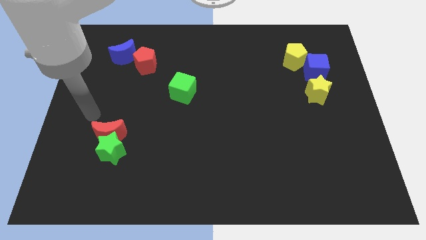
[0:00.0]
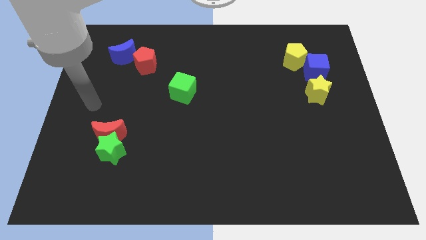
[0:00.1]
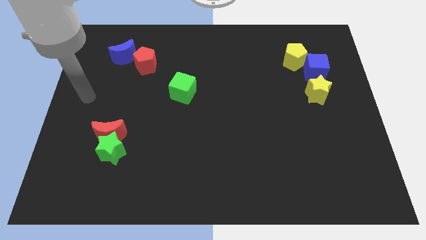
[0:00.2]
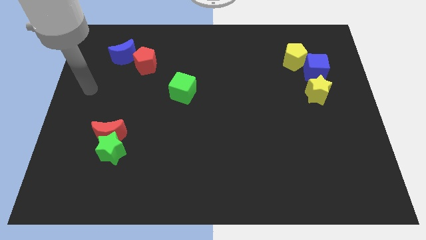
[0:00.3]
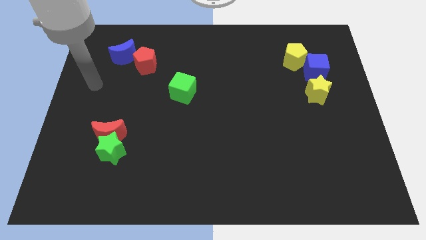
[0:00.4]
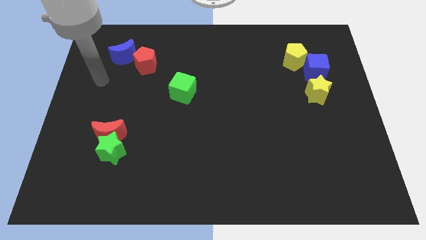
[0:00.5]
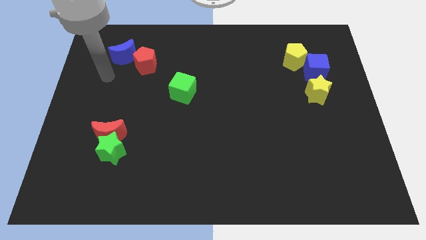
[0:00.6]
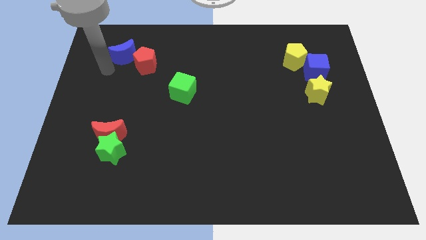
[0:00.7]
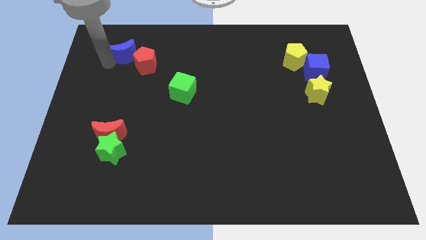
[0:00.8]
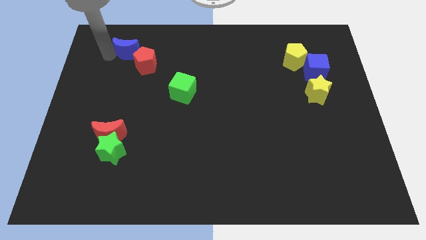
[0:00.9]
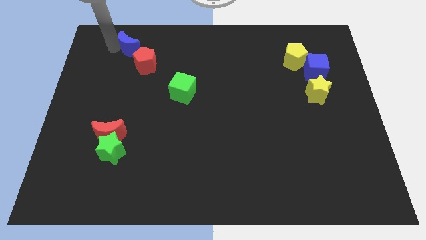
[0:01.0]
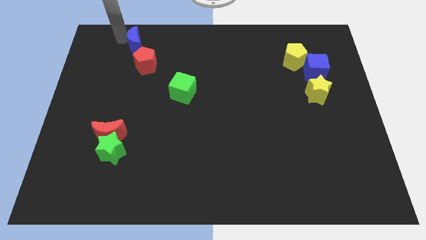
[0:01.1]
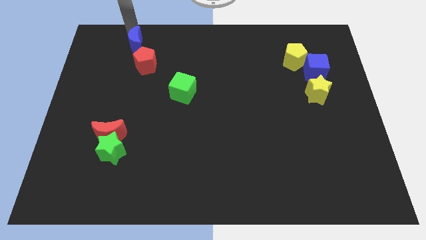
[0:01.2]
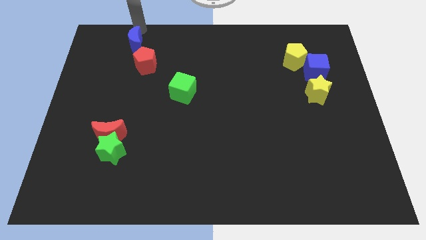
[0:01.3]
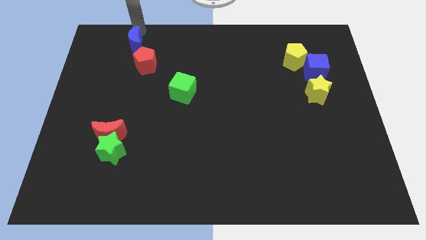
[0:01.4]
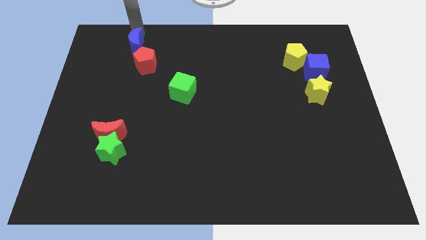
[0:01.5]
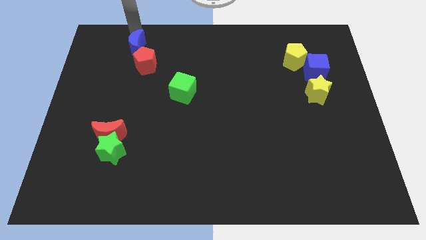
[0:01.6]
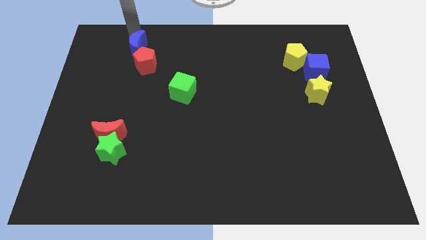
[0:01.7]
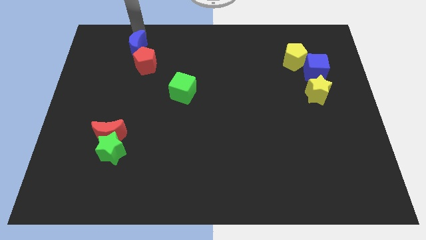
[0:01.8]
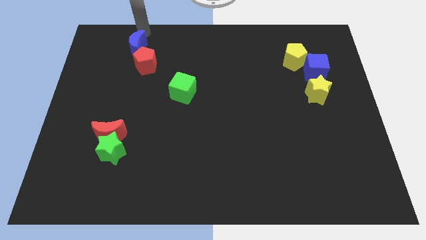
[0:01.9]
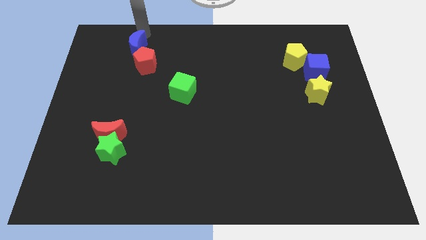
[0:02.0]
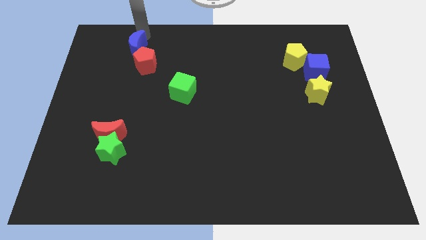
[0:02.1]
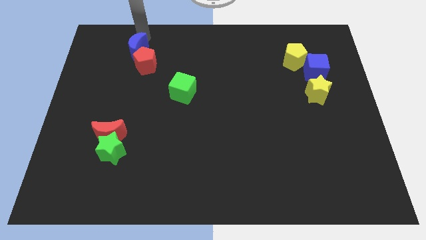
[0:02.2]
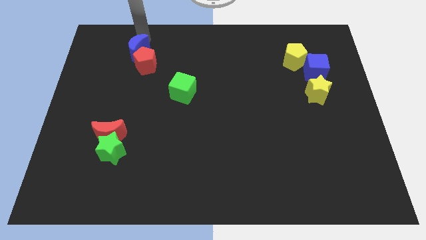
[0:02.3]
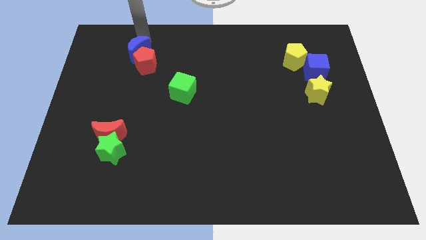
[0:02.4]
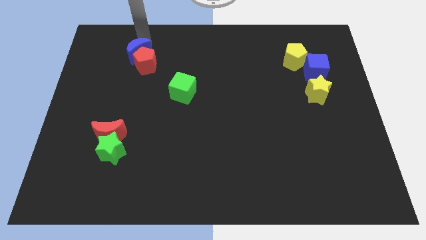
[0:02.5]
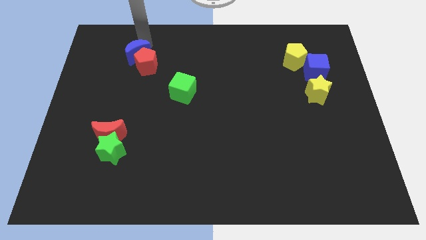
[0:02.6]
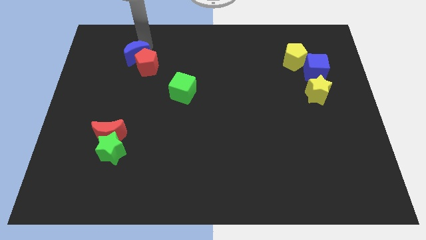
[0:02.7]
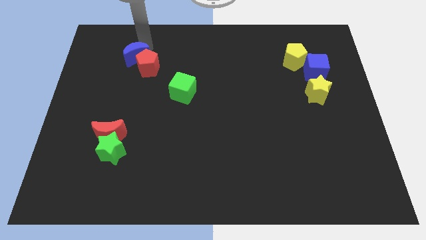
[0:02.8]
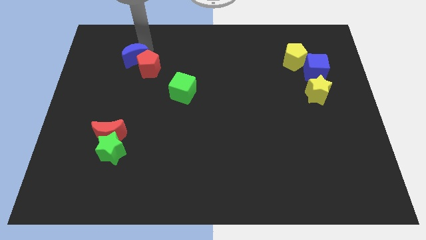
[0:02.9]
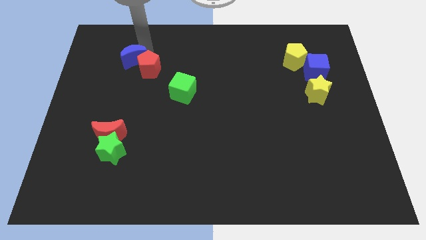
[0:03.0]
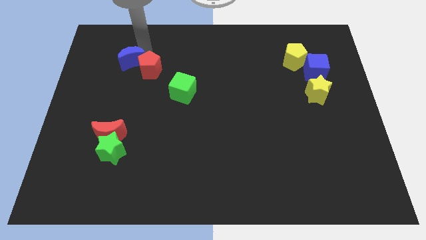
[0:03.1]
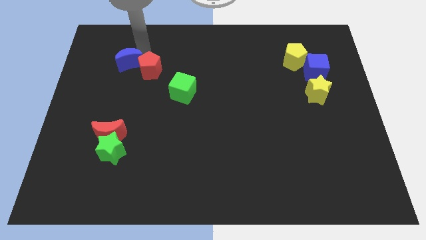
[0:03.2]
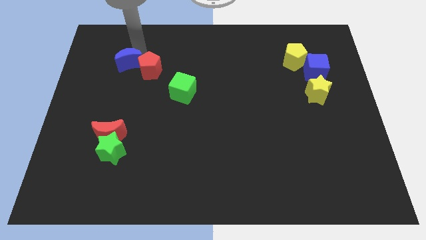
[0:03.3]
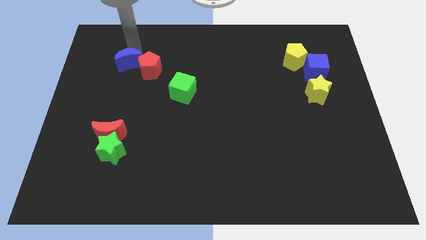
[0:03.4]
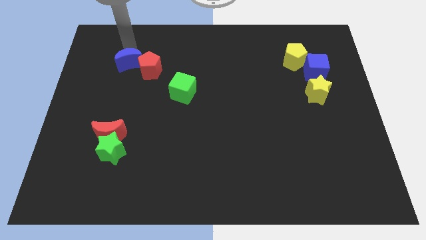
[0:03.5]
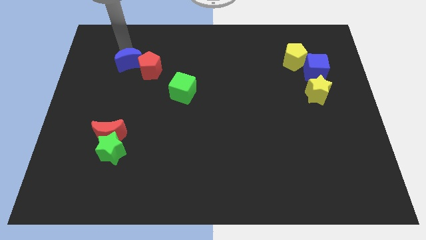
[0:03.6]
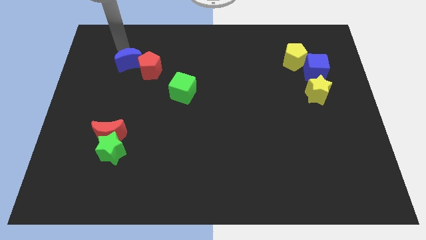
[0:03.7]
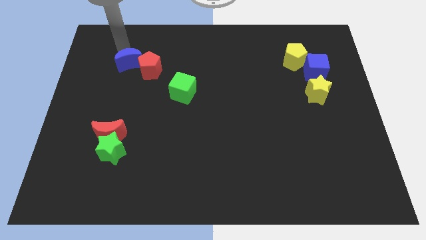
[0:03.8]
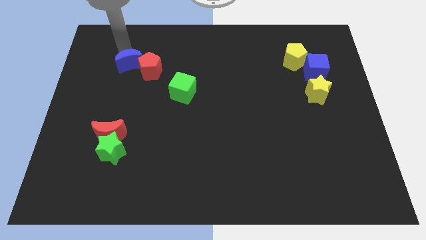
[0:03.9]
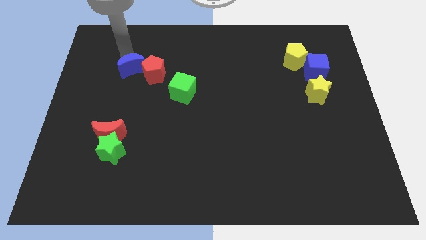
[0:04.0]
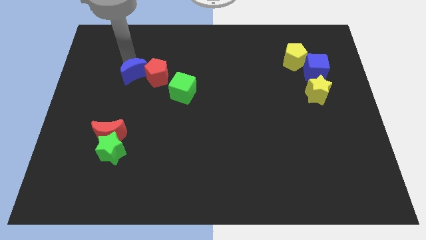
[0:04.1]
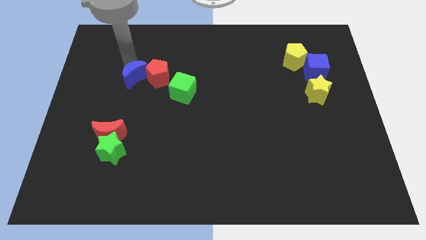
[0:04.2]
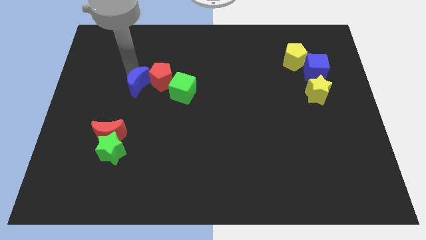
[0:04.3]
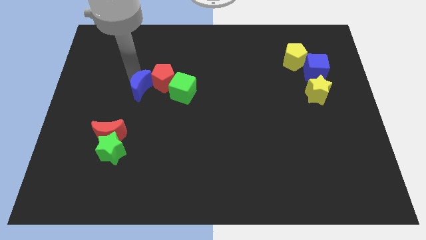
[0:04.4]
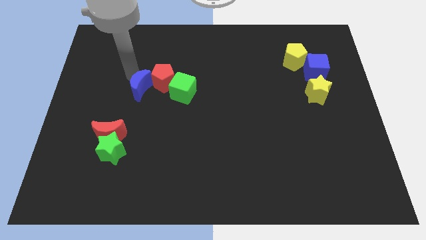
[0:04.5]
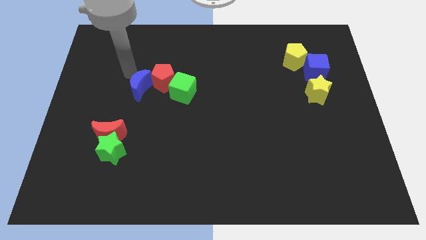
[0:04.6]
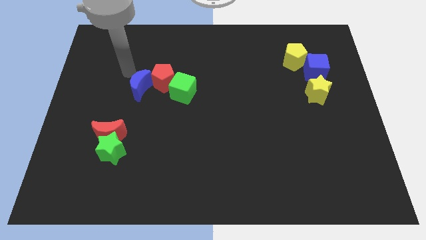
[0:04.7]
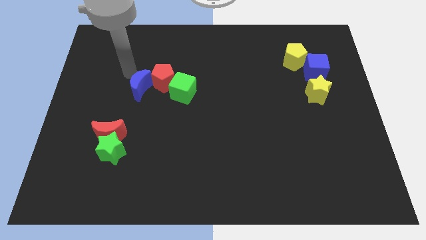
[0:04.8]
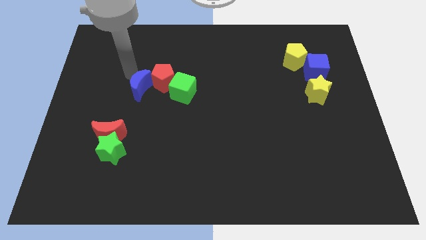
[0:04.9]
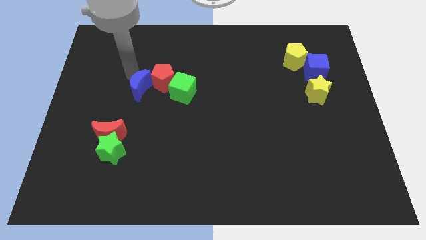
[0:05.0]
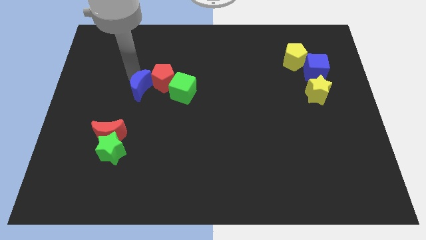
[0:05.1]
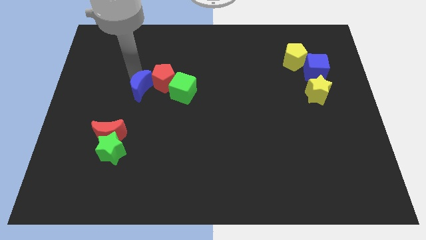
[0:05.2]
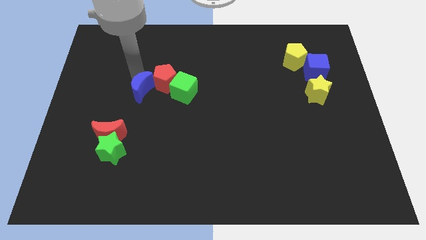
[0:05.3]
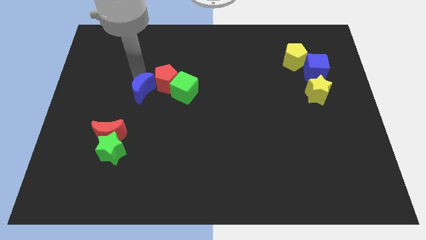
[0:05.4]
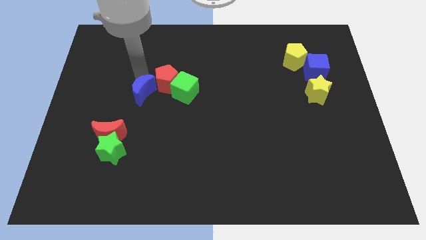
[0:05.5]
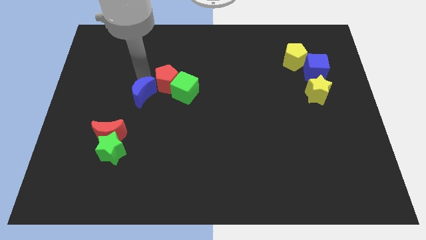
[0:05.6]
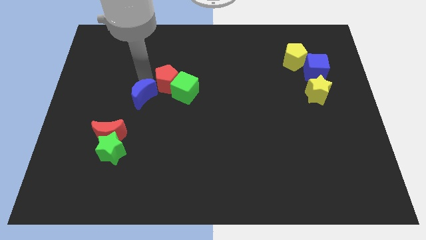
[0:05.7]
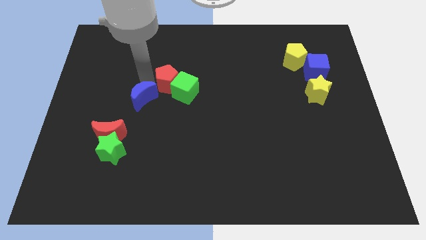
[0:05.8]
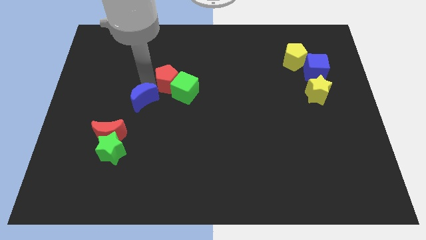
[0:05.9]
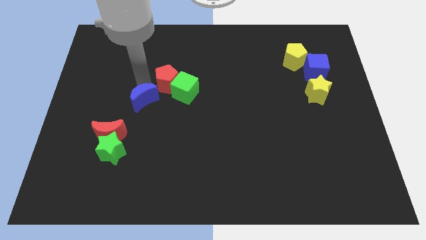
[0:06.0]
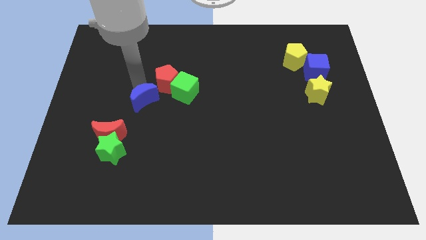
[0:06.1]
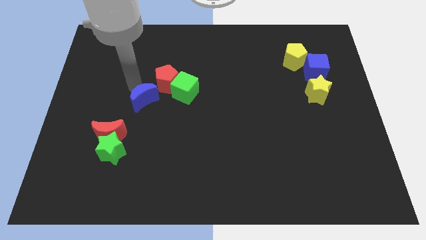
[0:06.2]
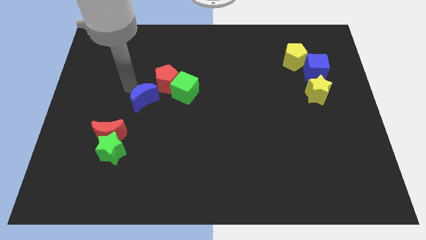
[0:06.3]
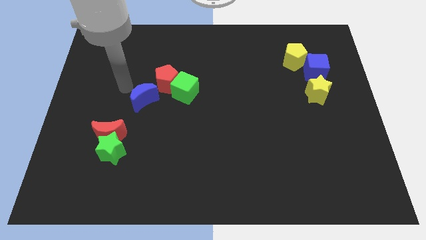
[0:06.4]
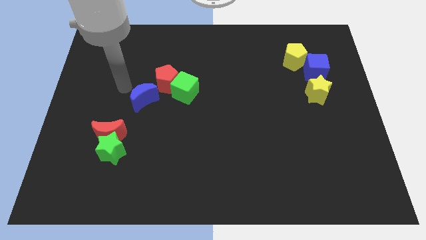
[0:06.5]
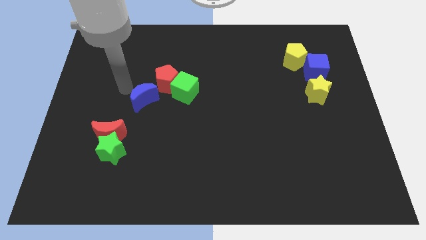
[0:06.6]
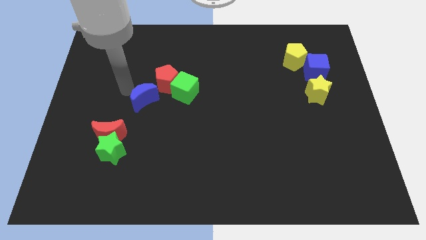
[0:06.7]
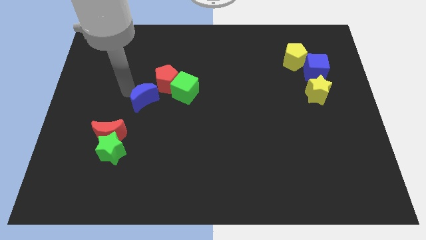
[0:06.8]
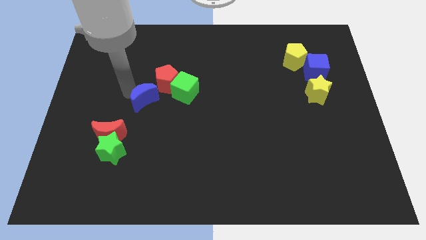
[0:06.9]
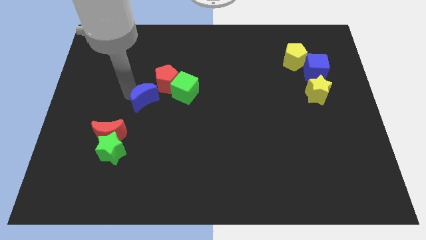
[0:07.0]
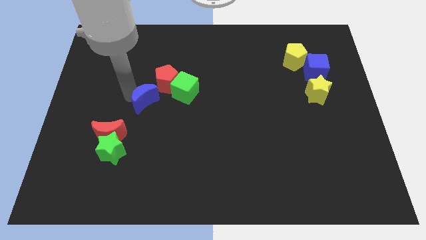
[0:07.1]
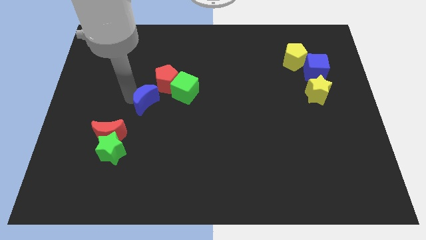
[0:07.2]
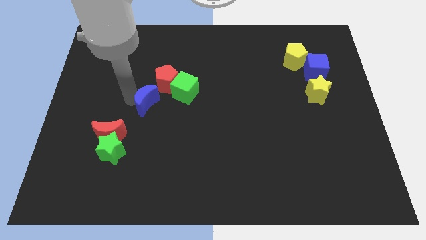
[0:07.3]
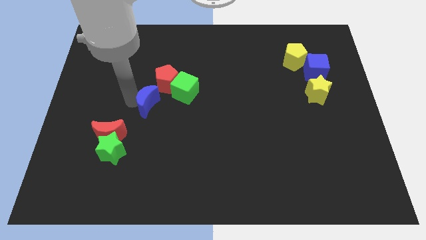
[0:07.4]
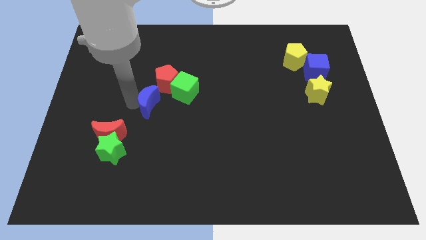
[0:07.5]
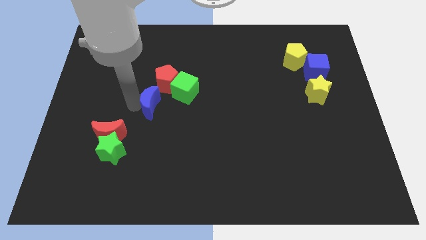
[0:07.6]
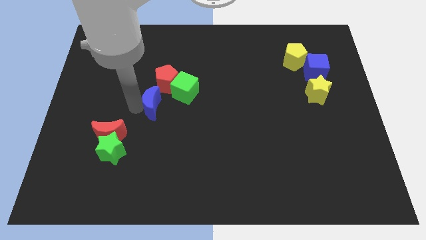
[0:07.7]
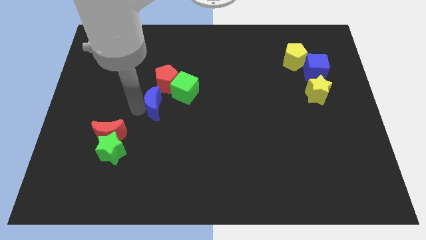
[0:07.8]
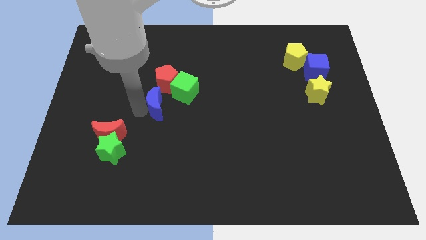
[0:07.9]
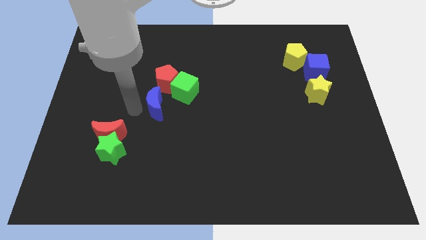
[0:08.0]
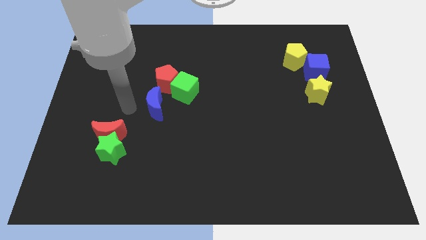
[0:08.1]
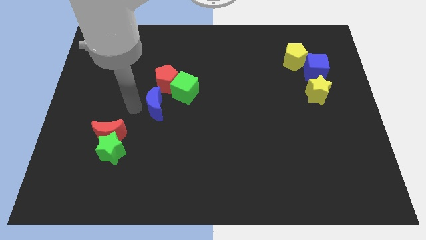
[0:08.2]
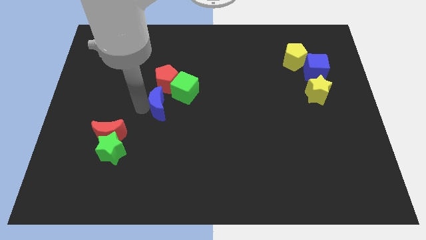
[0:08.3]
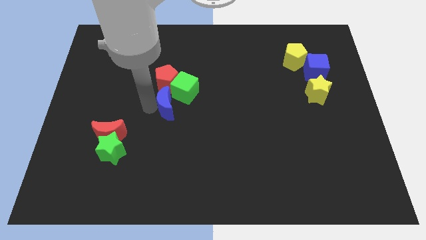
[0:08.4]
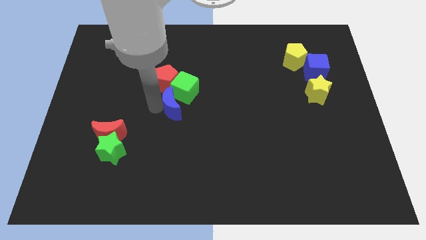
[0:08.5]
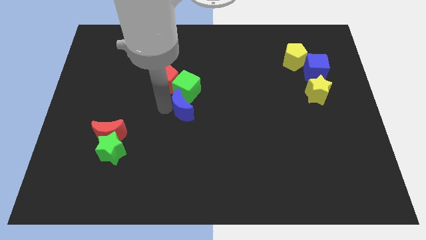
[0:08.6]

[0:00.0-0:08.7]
slide the blue moon to the bottom right side of the green cube
